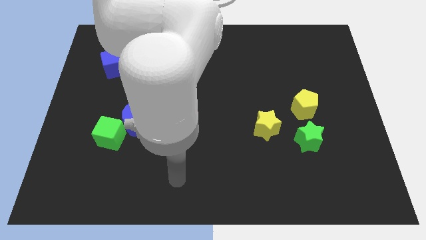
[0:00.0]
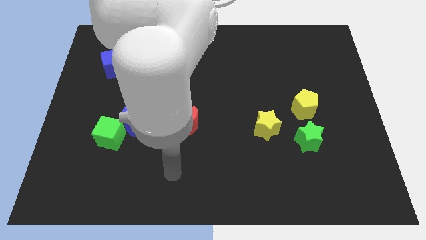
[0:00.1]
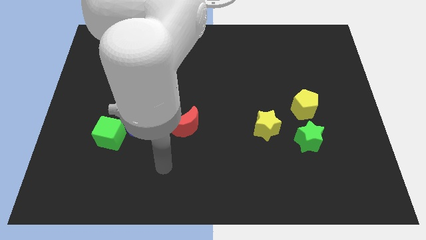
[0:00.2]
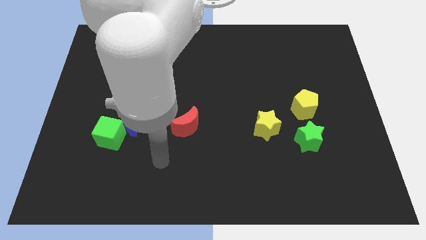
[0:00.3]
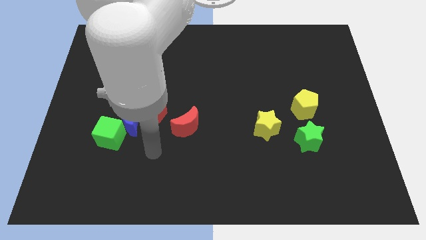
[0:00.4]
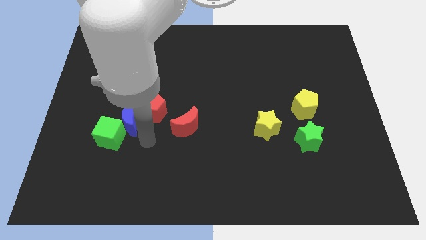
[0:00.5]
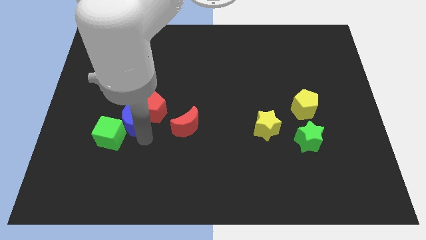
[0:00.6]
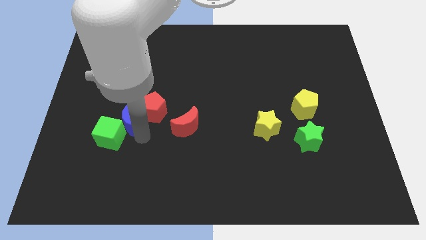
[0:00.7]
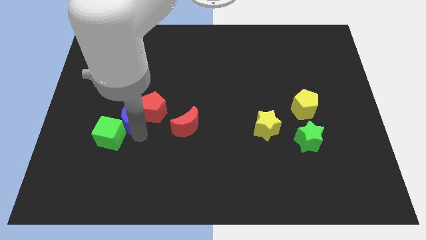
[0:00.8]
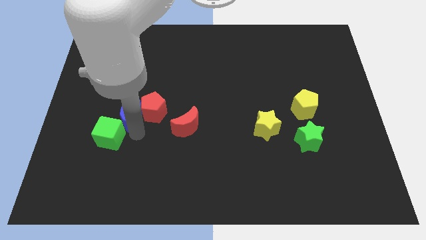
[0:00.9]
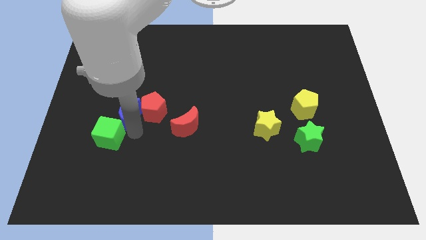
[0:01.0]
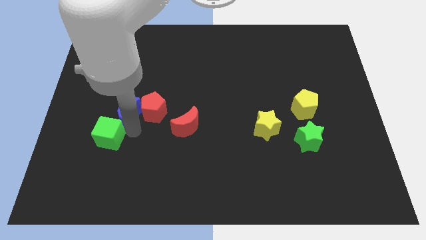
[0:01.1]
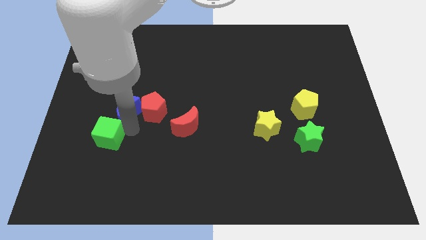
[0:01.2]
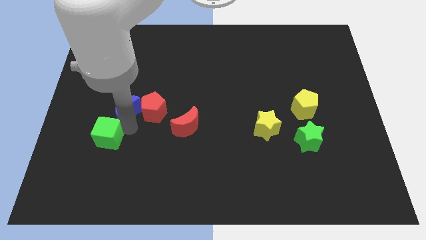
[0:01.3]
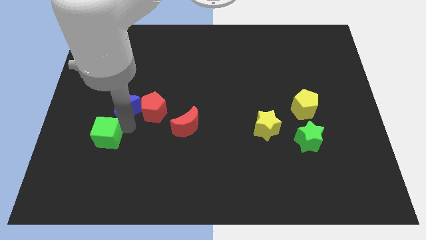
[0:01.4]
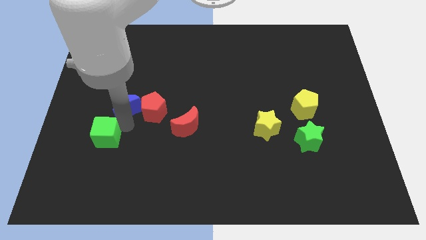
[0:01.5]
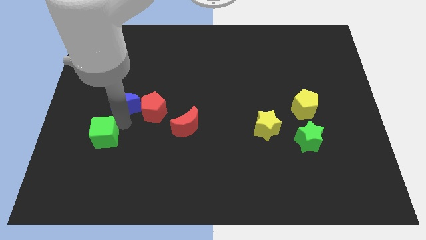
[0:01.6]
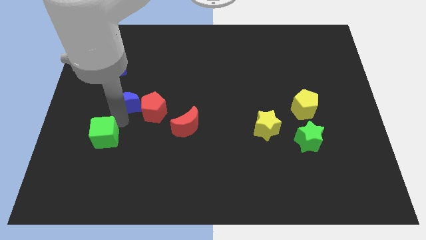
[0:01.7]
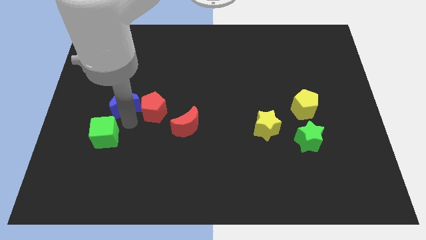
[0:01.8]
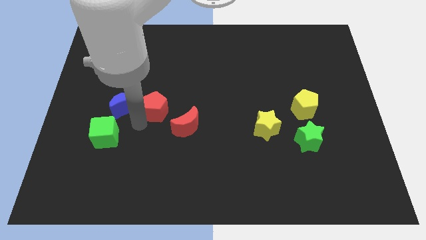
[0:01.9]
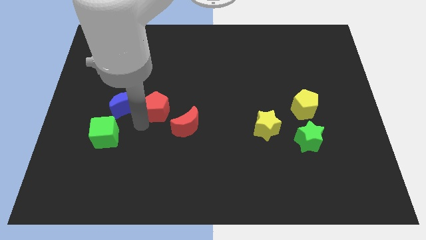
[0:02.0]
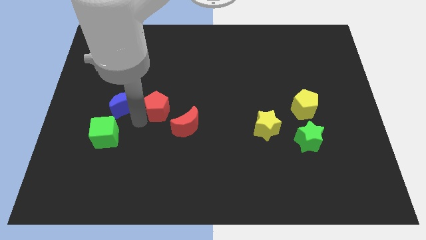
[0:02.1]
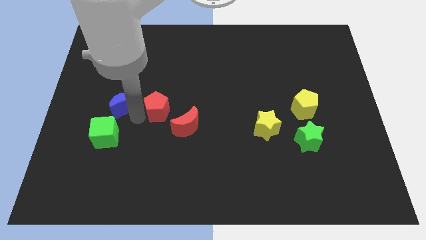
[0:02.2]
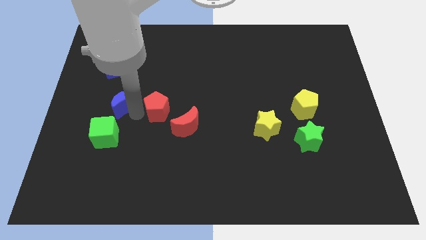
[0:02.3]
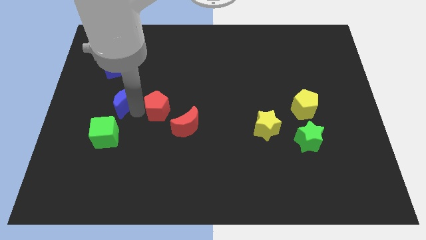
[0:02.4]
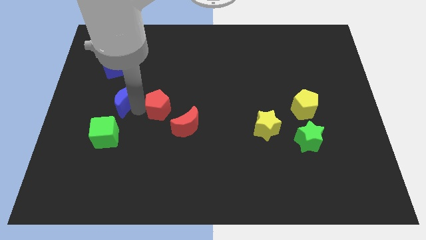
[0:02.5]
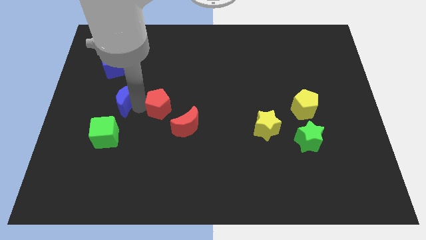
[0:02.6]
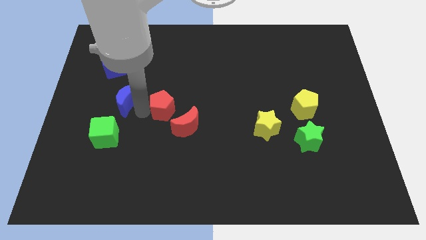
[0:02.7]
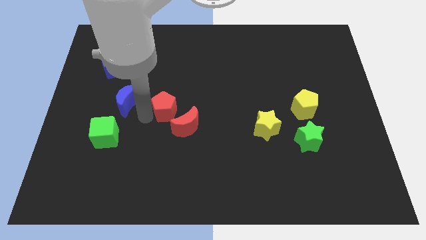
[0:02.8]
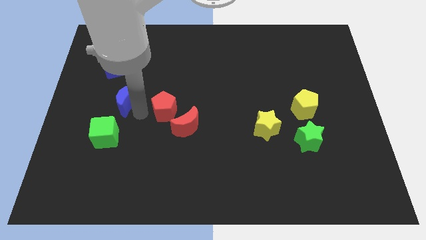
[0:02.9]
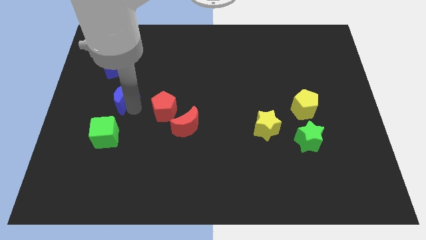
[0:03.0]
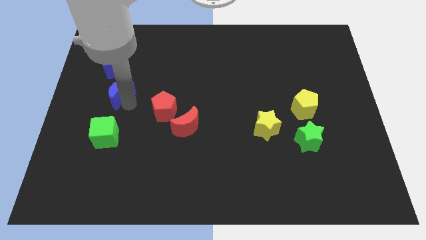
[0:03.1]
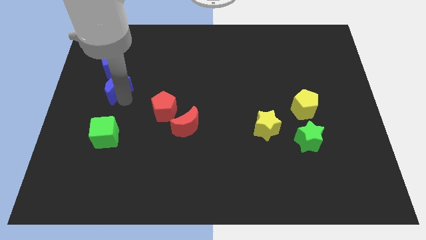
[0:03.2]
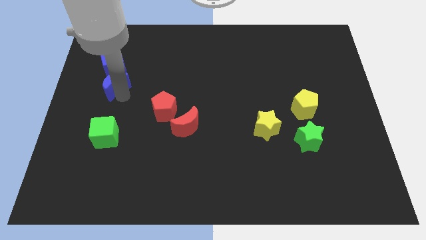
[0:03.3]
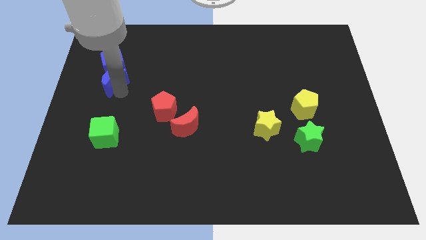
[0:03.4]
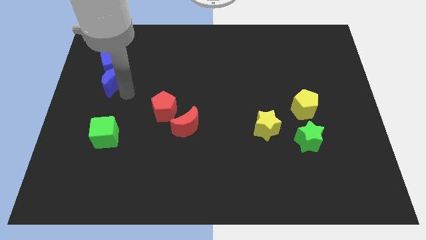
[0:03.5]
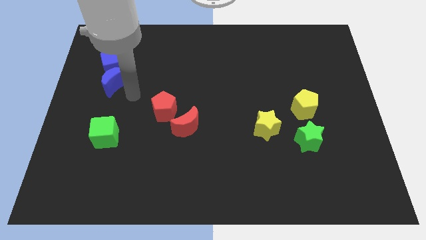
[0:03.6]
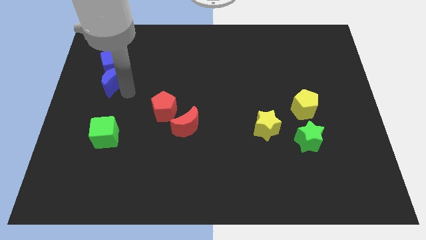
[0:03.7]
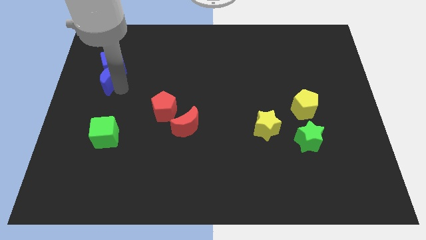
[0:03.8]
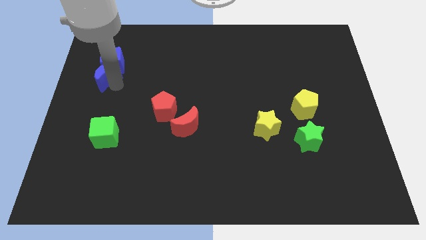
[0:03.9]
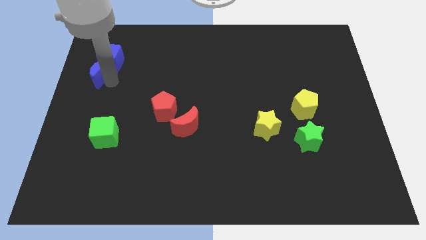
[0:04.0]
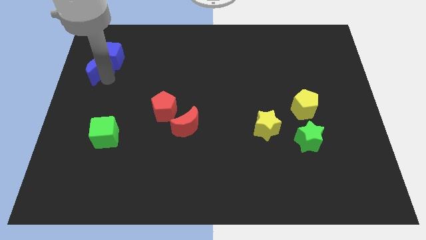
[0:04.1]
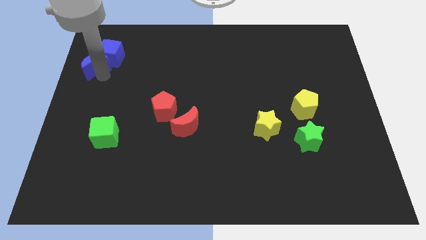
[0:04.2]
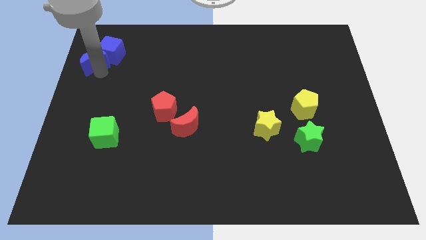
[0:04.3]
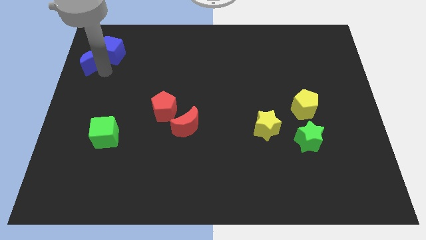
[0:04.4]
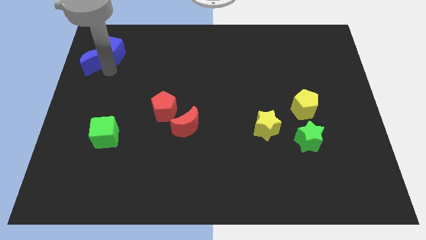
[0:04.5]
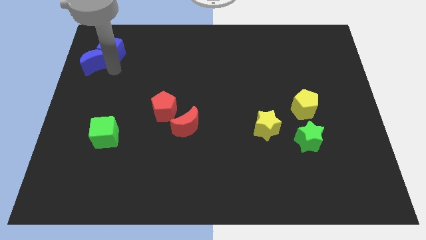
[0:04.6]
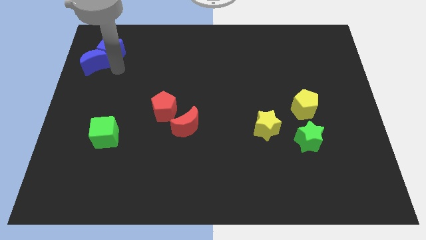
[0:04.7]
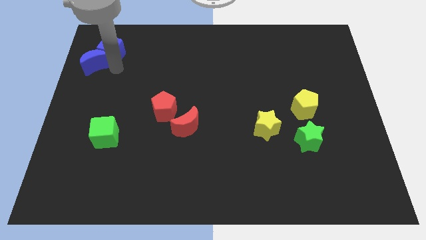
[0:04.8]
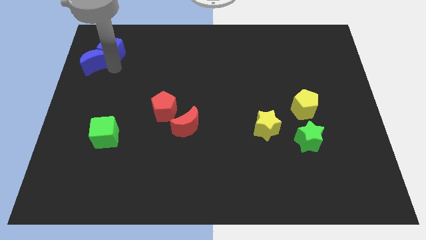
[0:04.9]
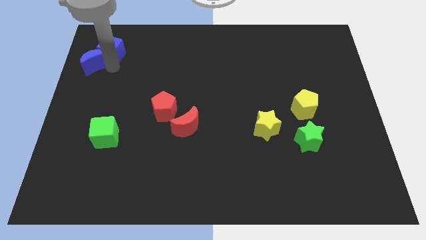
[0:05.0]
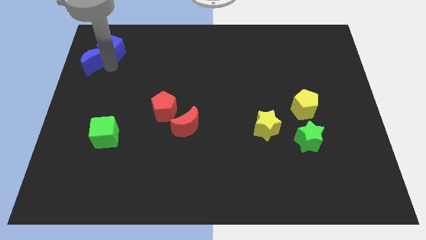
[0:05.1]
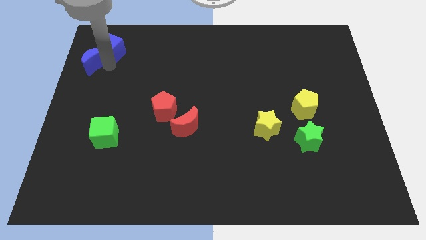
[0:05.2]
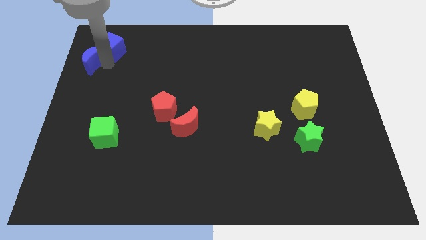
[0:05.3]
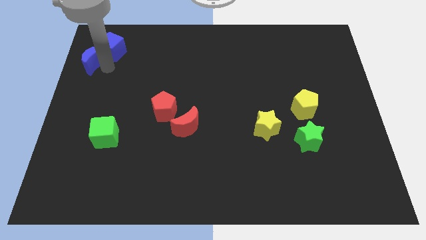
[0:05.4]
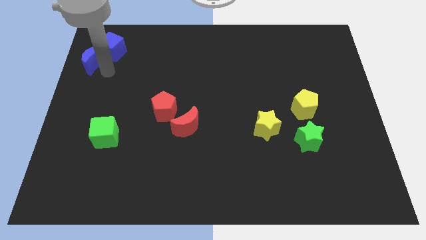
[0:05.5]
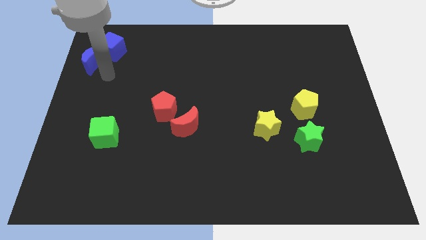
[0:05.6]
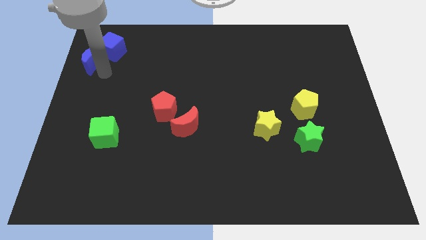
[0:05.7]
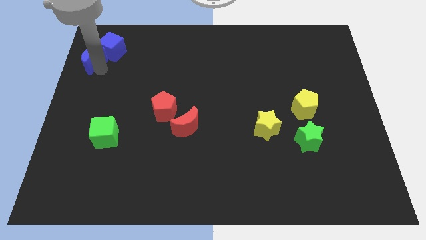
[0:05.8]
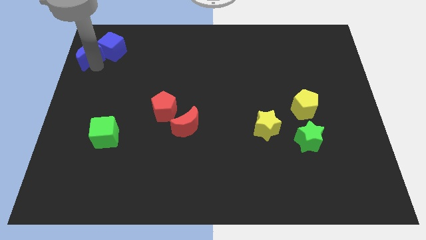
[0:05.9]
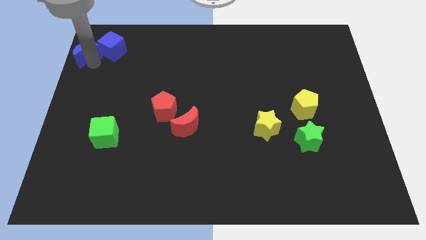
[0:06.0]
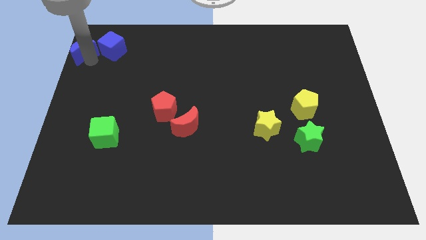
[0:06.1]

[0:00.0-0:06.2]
move the blue moon to the top left of the board

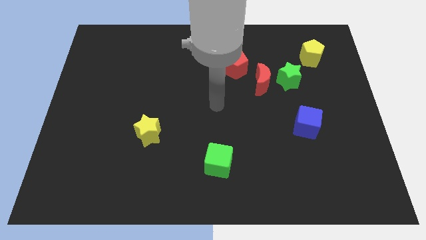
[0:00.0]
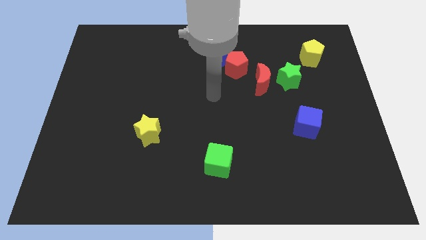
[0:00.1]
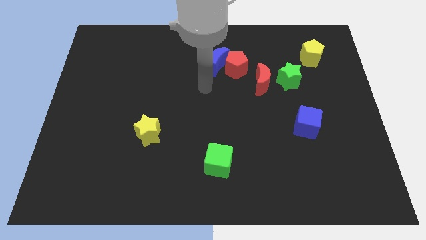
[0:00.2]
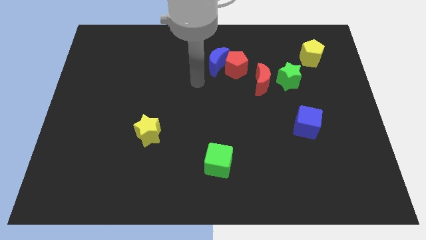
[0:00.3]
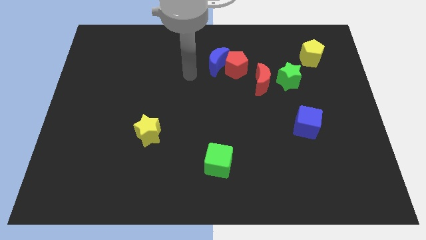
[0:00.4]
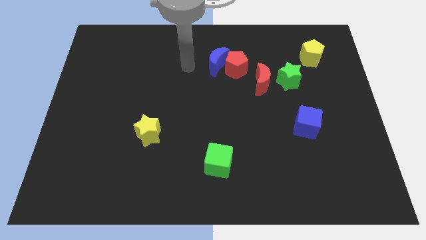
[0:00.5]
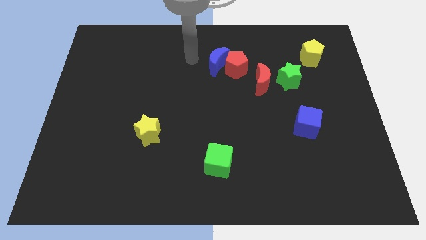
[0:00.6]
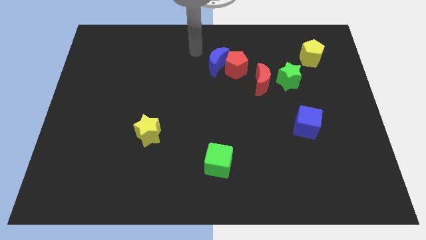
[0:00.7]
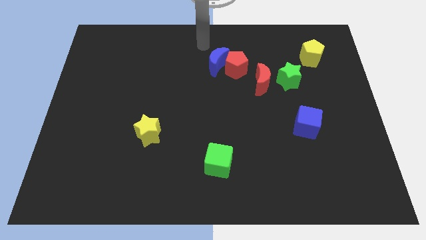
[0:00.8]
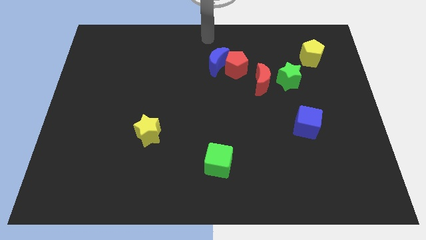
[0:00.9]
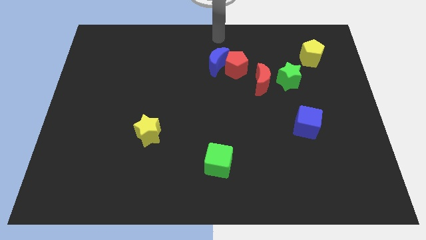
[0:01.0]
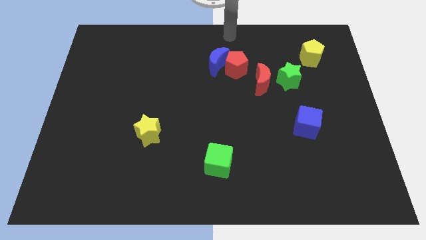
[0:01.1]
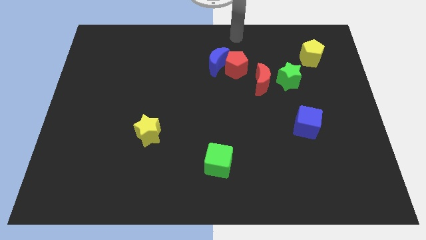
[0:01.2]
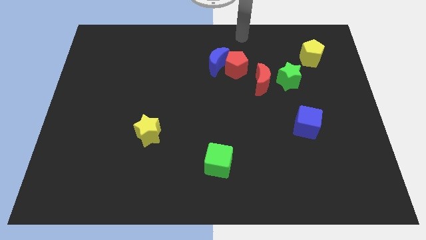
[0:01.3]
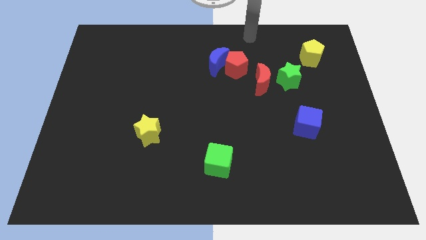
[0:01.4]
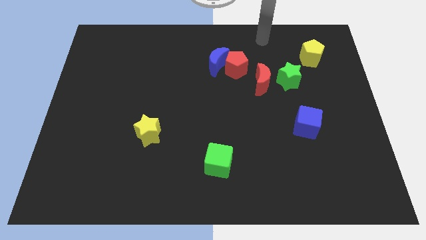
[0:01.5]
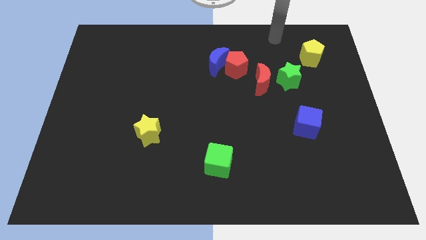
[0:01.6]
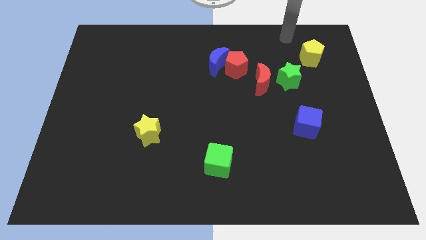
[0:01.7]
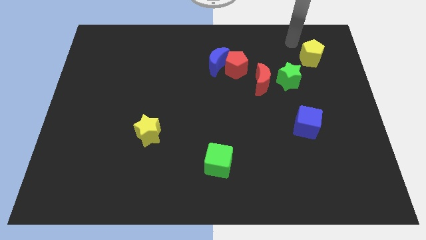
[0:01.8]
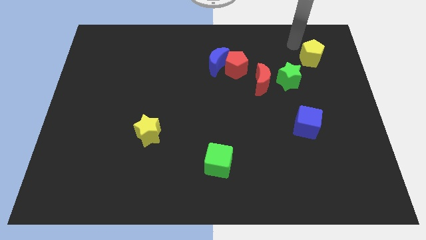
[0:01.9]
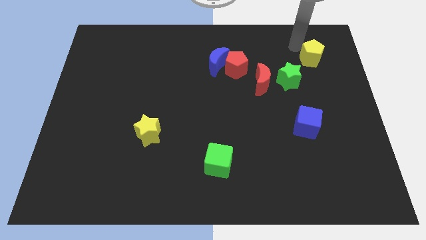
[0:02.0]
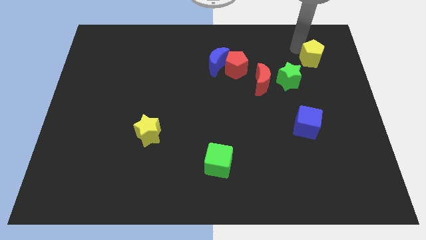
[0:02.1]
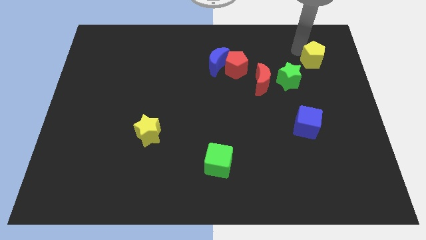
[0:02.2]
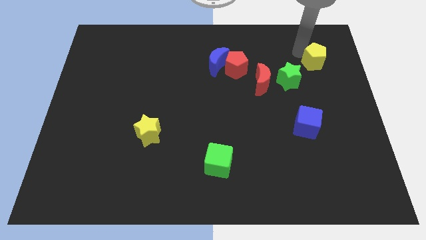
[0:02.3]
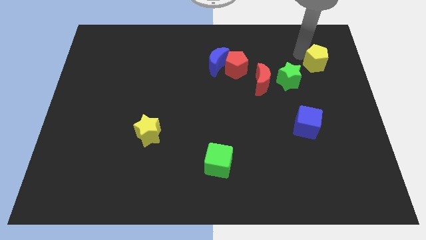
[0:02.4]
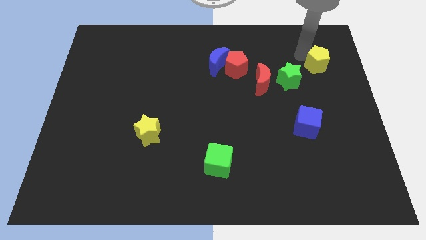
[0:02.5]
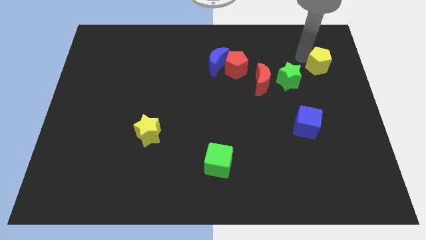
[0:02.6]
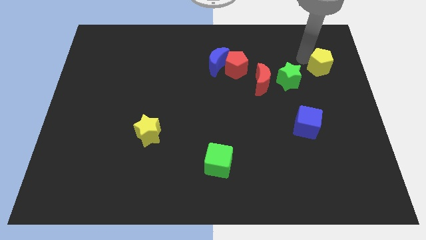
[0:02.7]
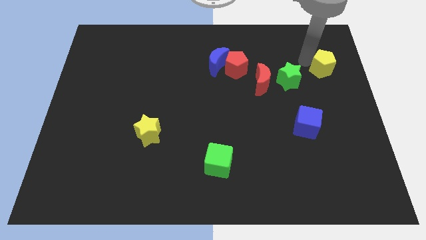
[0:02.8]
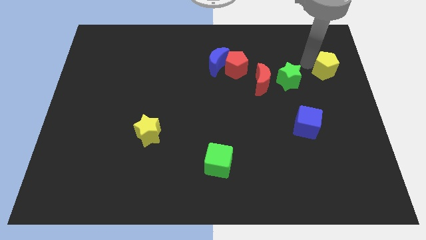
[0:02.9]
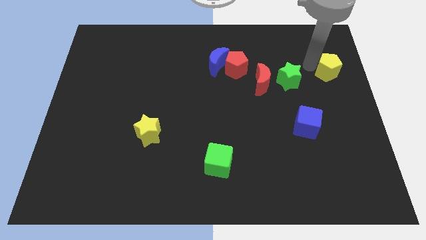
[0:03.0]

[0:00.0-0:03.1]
push the yellow pentagon to the center right
